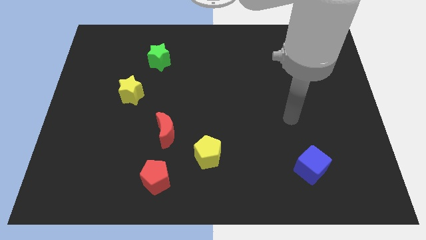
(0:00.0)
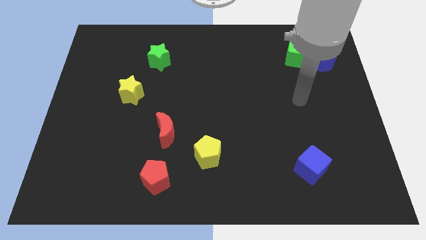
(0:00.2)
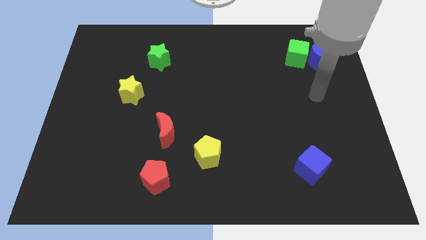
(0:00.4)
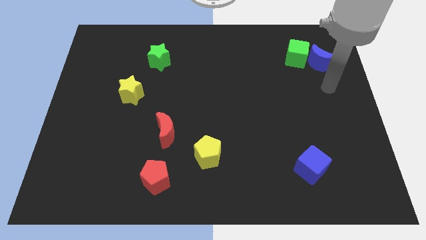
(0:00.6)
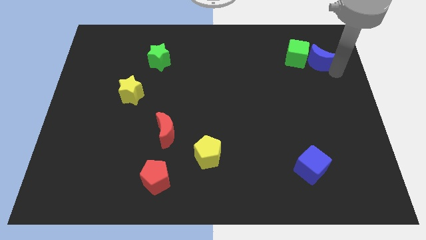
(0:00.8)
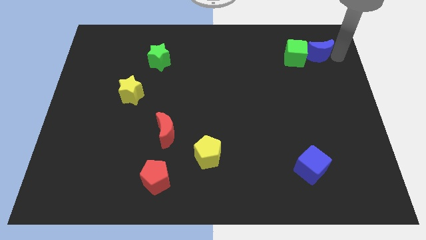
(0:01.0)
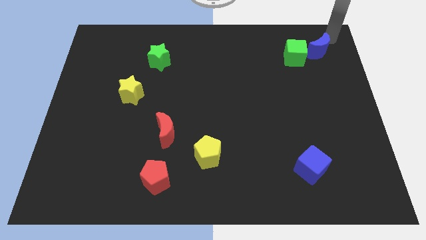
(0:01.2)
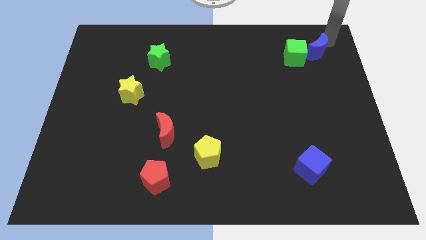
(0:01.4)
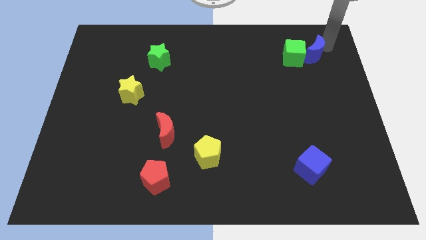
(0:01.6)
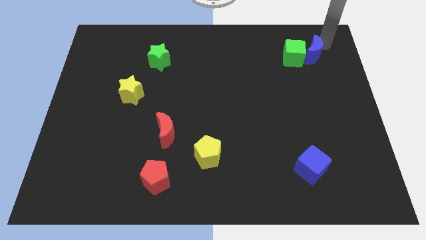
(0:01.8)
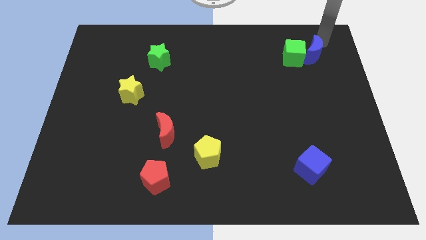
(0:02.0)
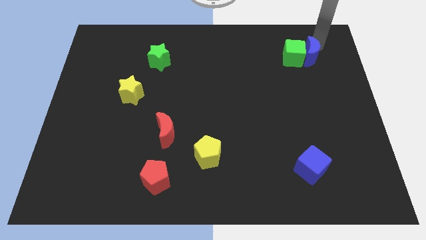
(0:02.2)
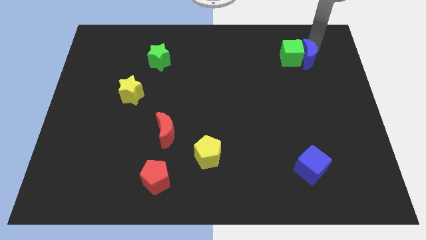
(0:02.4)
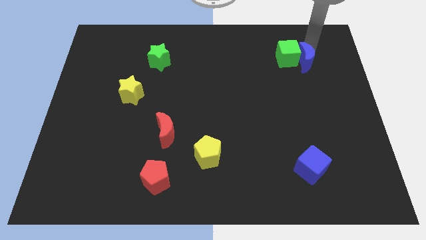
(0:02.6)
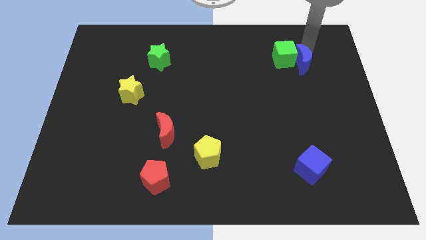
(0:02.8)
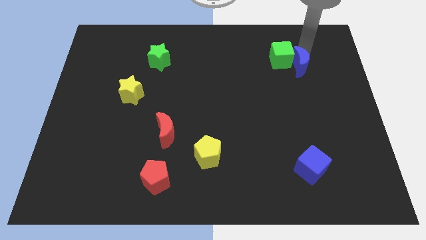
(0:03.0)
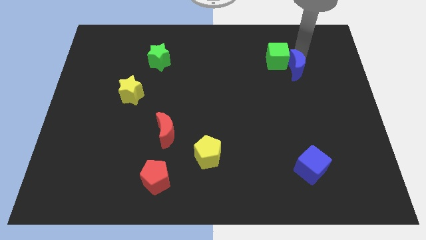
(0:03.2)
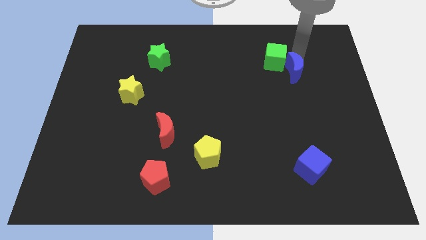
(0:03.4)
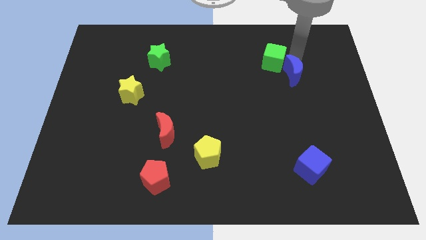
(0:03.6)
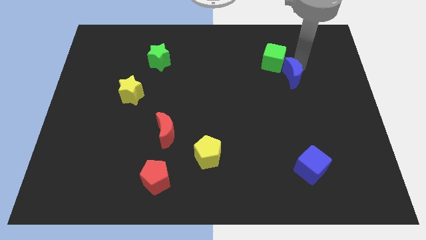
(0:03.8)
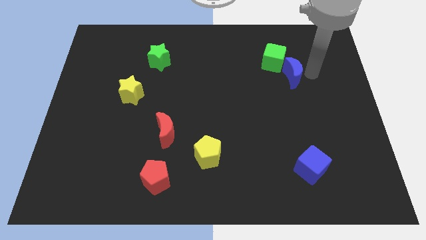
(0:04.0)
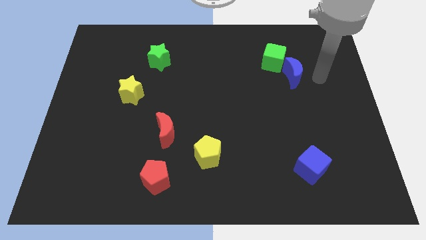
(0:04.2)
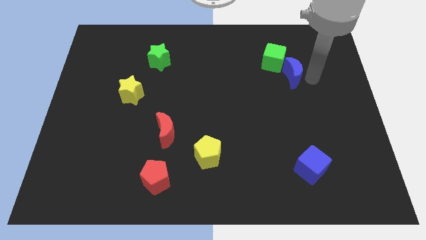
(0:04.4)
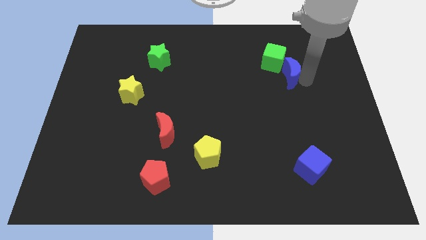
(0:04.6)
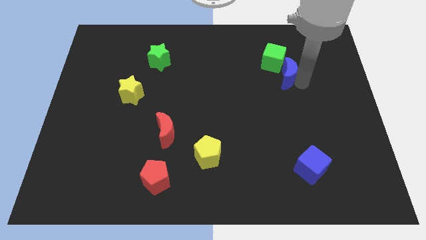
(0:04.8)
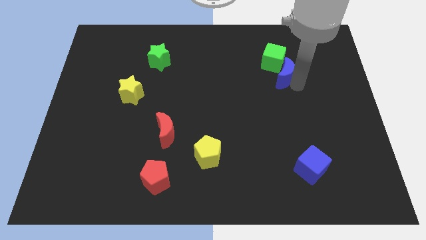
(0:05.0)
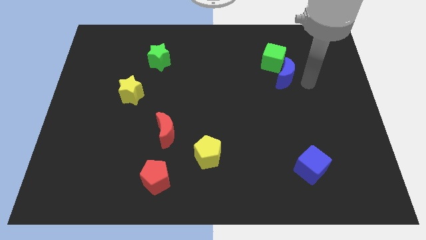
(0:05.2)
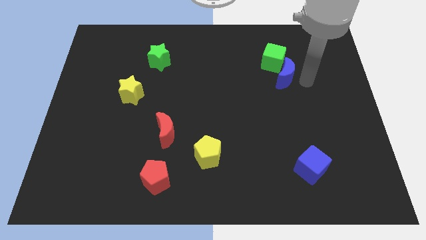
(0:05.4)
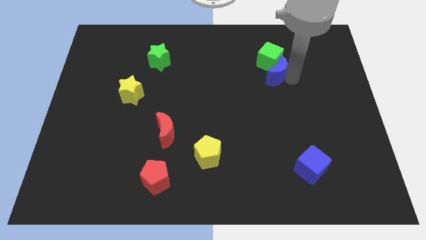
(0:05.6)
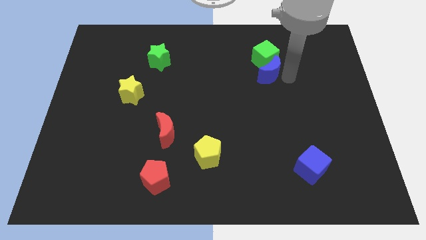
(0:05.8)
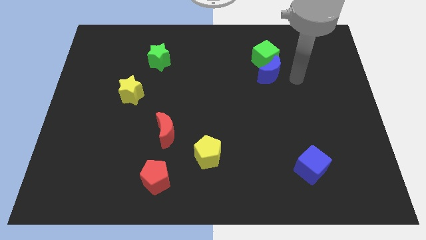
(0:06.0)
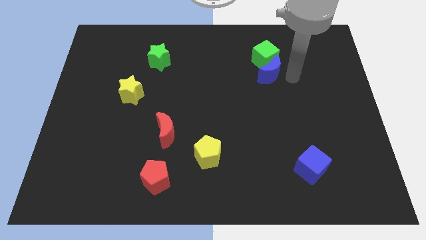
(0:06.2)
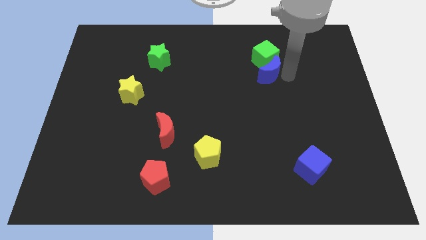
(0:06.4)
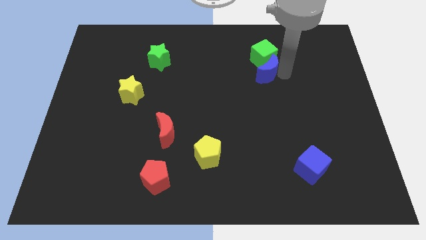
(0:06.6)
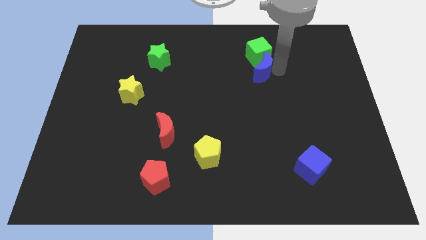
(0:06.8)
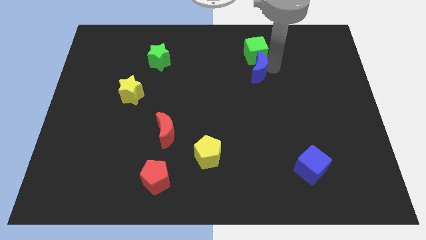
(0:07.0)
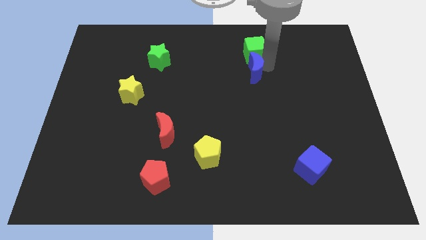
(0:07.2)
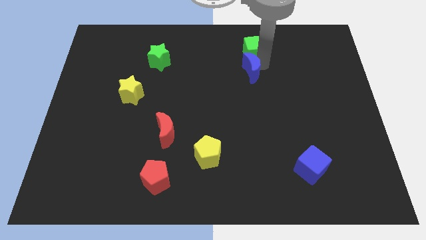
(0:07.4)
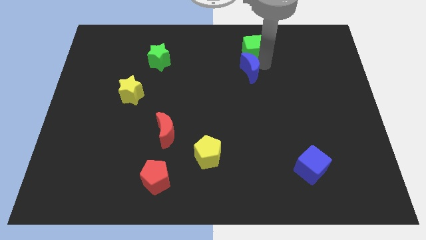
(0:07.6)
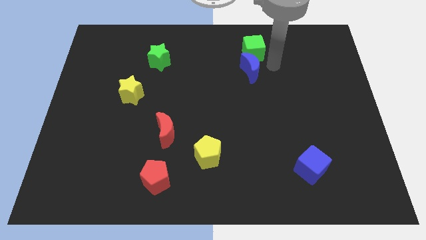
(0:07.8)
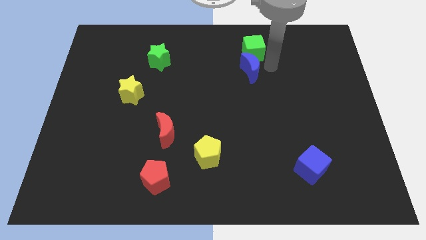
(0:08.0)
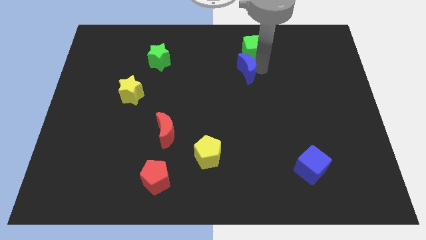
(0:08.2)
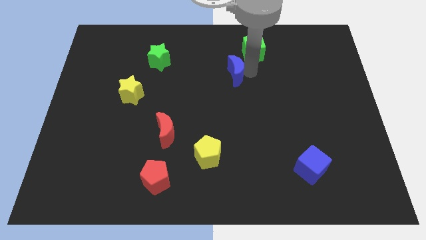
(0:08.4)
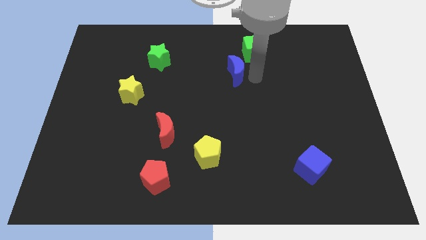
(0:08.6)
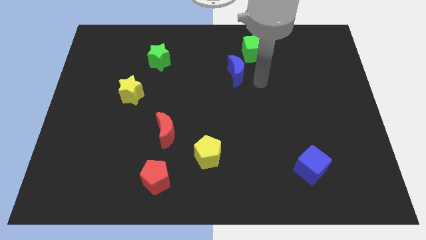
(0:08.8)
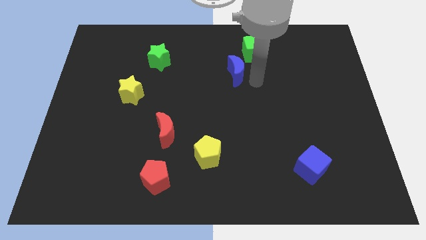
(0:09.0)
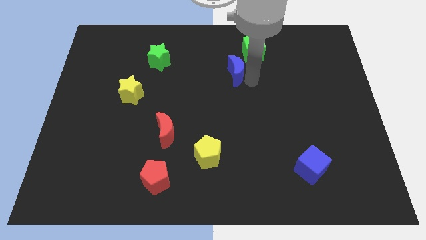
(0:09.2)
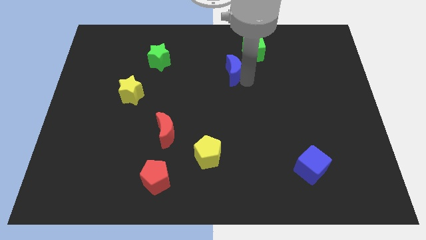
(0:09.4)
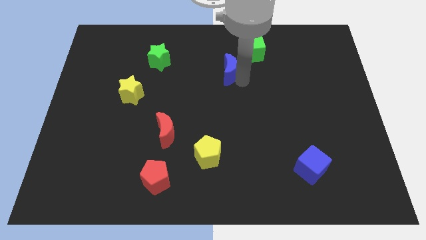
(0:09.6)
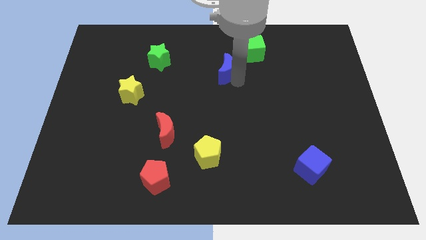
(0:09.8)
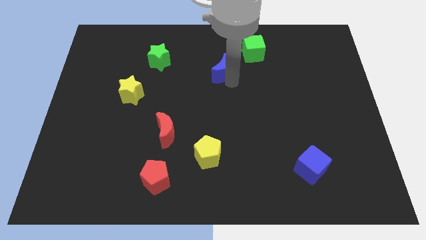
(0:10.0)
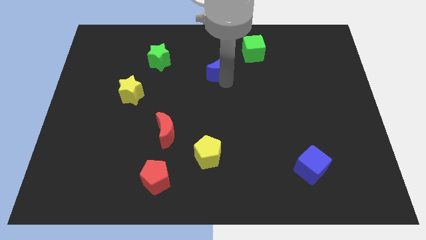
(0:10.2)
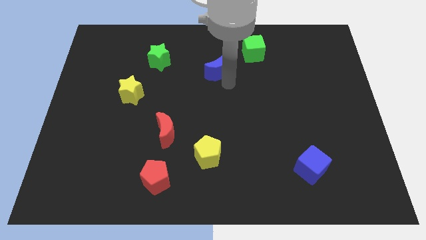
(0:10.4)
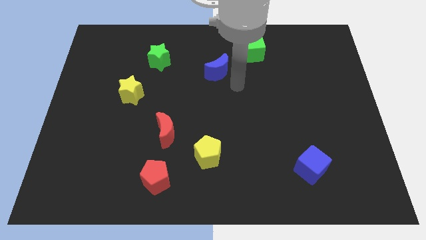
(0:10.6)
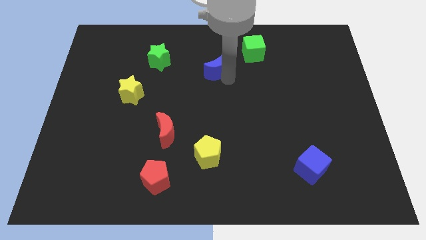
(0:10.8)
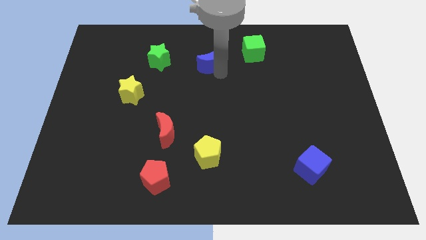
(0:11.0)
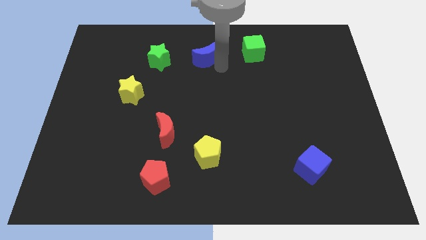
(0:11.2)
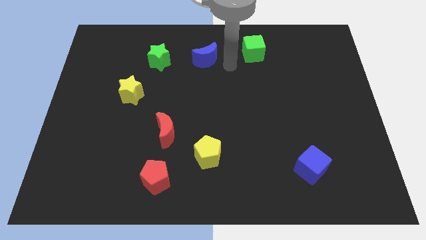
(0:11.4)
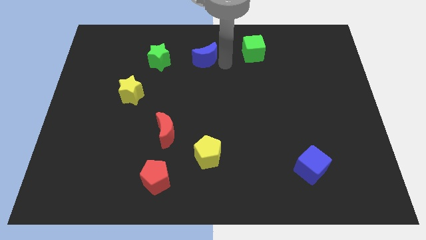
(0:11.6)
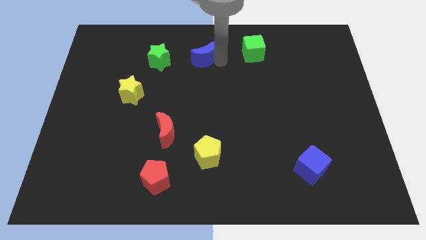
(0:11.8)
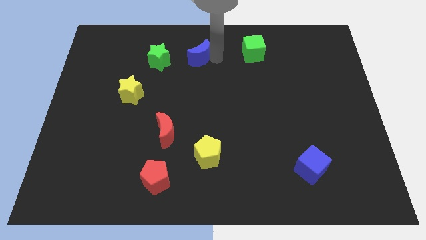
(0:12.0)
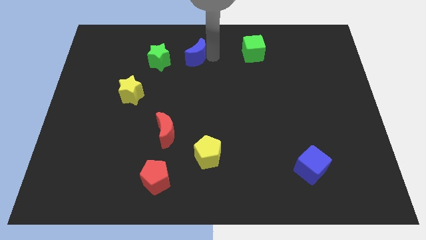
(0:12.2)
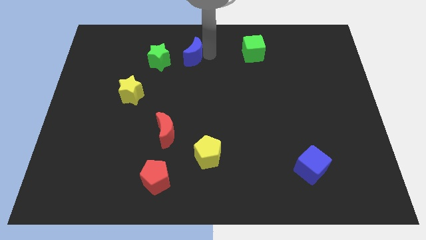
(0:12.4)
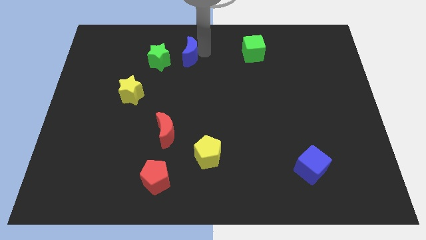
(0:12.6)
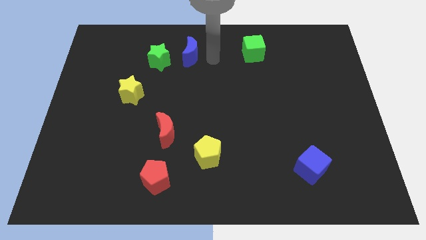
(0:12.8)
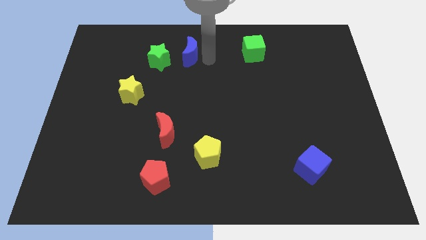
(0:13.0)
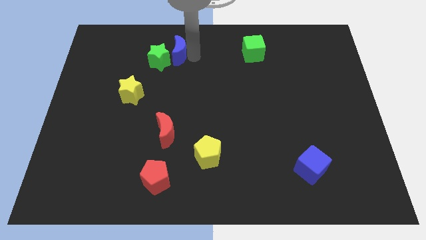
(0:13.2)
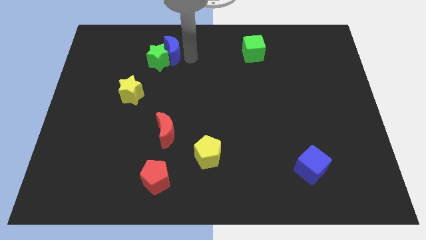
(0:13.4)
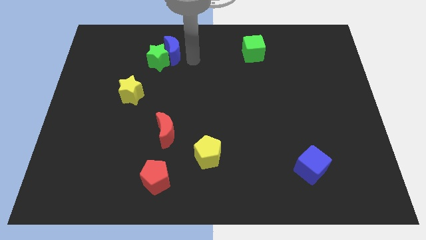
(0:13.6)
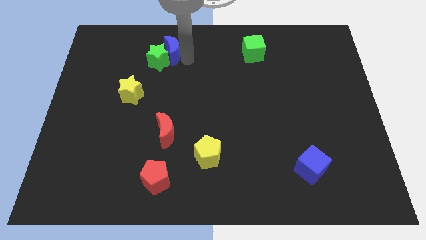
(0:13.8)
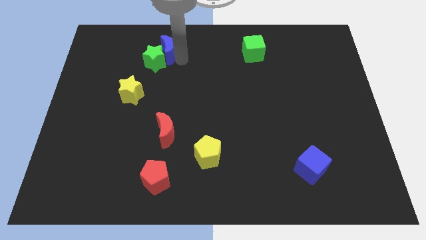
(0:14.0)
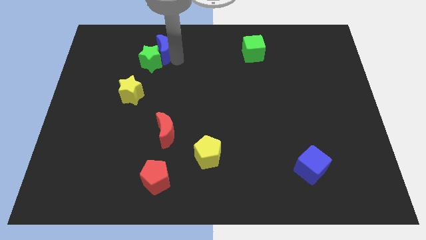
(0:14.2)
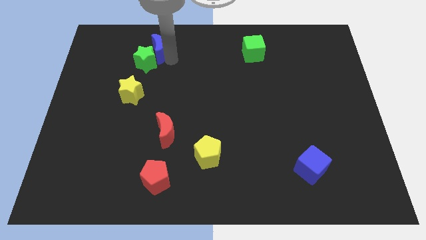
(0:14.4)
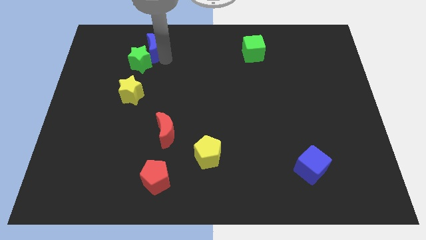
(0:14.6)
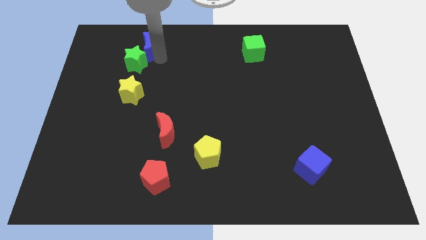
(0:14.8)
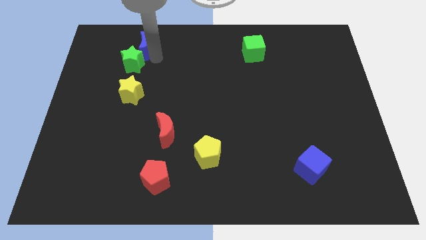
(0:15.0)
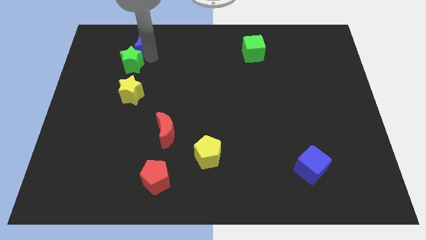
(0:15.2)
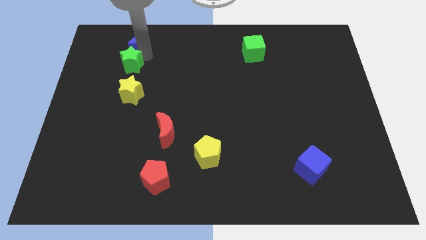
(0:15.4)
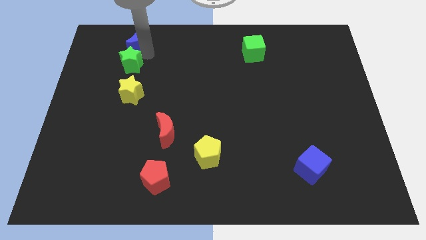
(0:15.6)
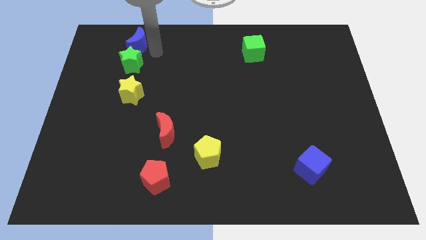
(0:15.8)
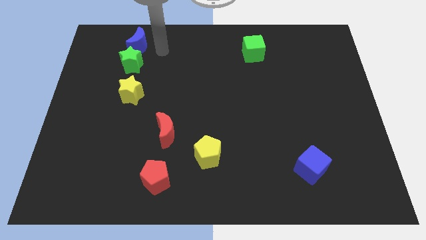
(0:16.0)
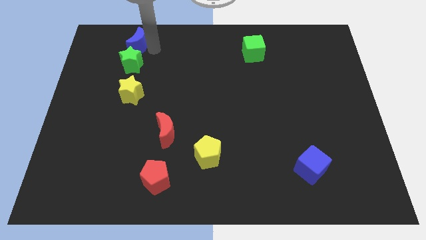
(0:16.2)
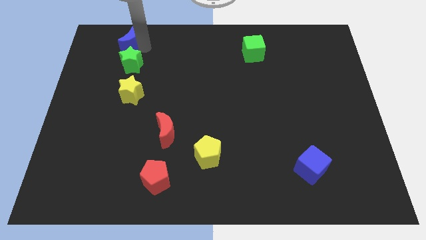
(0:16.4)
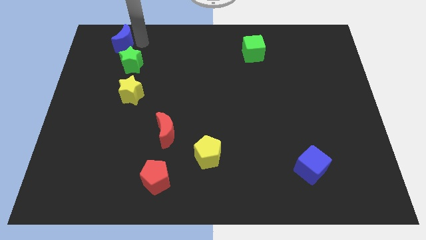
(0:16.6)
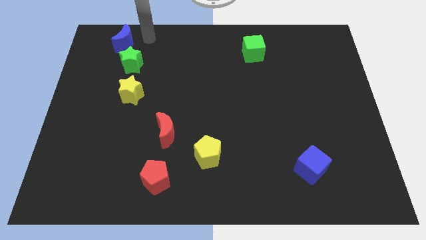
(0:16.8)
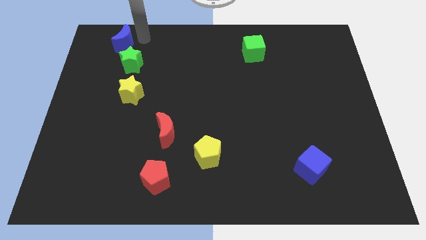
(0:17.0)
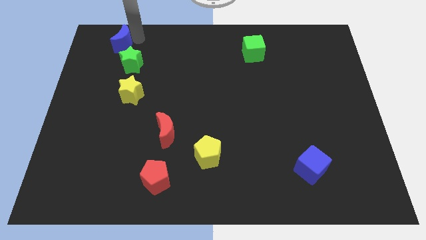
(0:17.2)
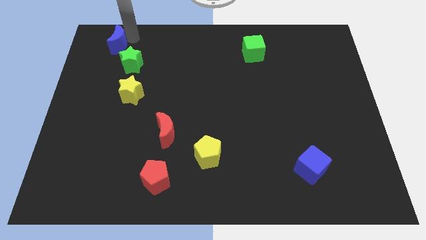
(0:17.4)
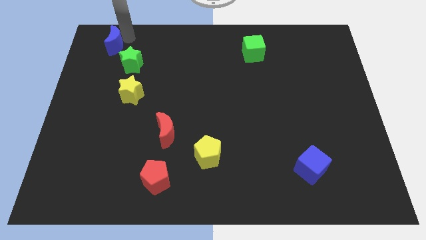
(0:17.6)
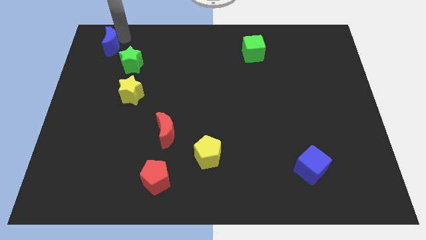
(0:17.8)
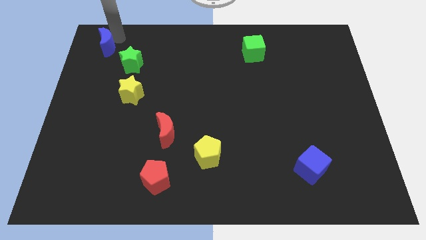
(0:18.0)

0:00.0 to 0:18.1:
put the blue moon to the top left of the board
